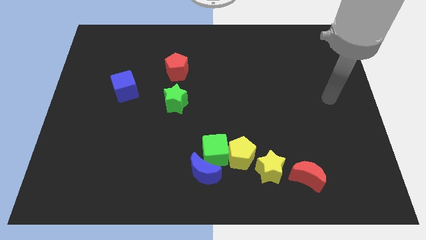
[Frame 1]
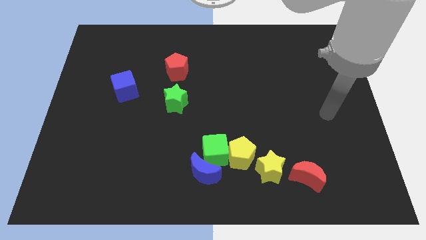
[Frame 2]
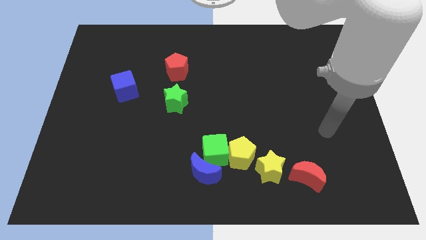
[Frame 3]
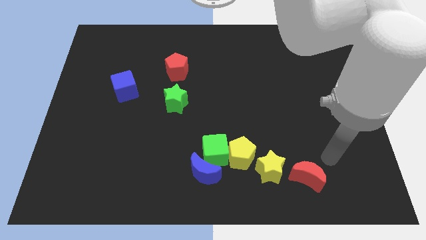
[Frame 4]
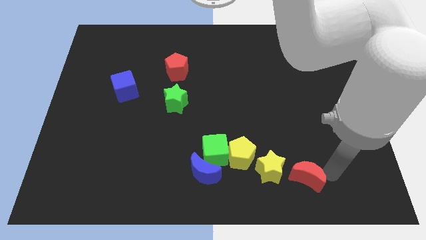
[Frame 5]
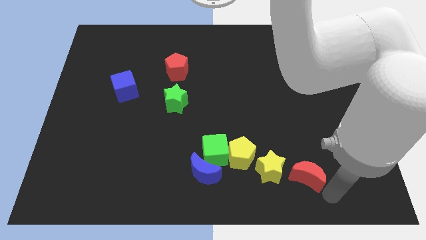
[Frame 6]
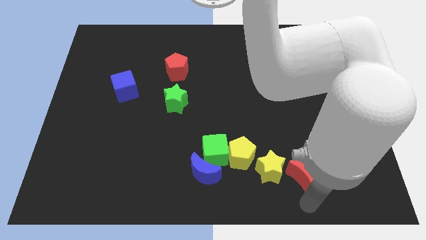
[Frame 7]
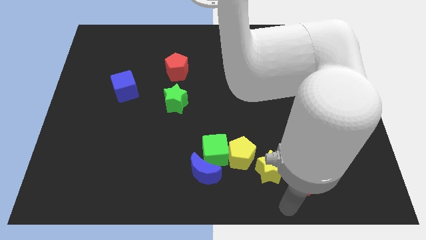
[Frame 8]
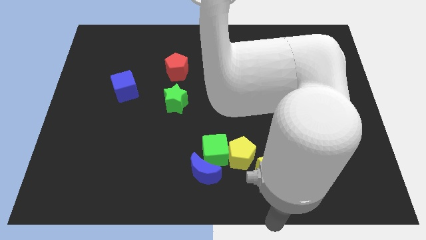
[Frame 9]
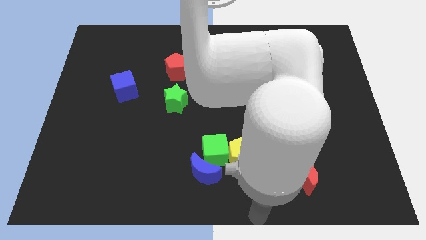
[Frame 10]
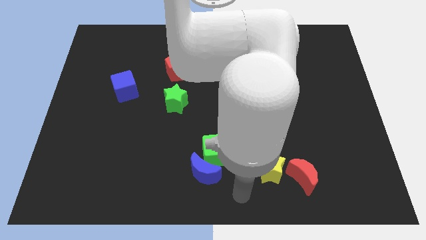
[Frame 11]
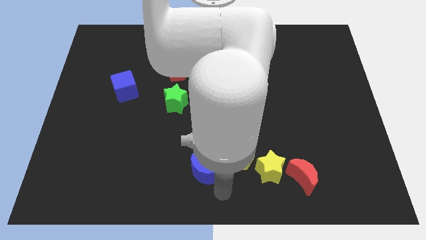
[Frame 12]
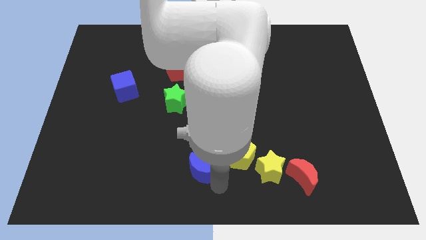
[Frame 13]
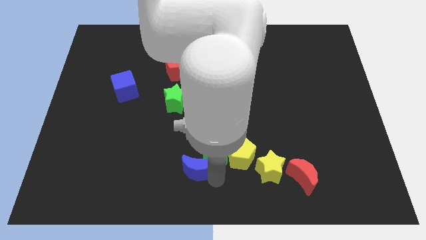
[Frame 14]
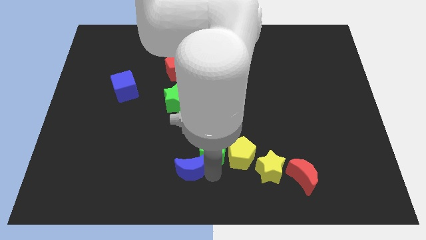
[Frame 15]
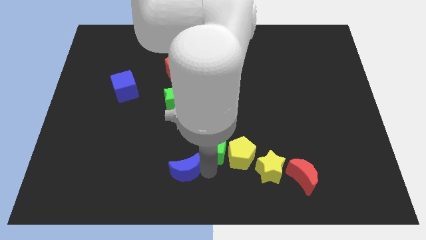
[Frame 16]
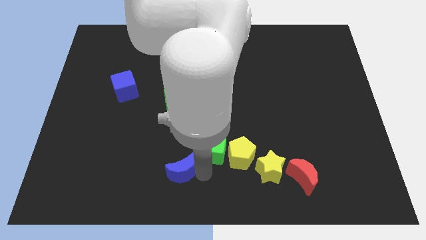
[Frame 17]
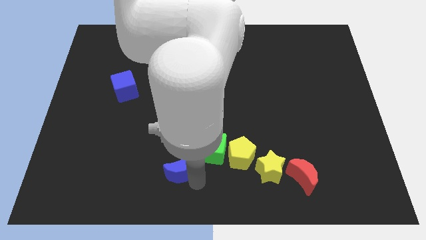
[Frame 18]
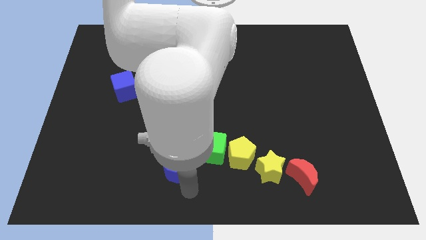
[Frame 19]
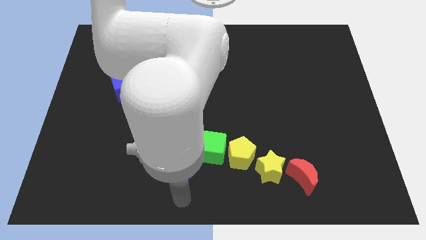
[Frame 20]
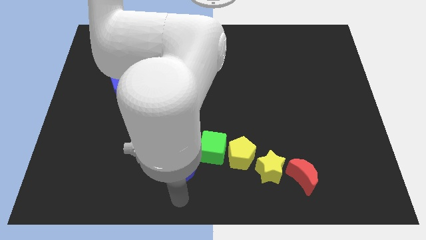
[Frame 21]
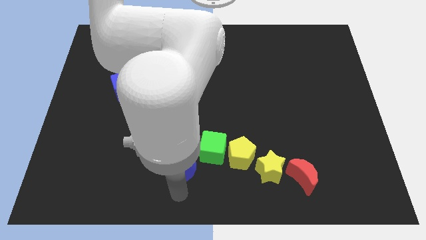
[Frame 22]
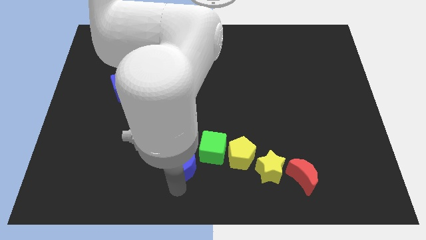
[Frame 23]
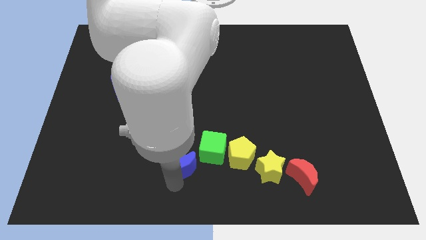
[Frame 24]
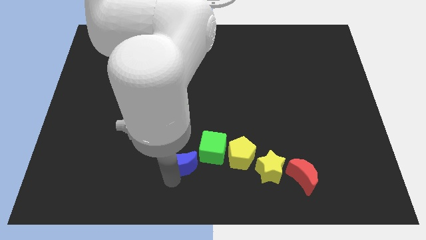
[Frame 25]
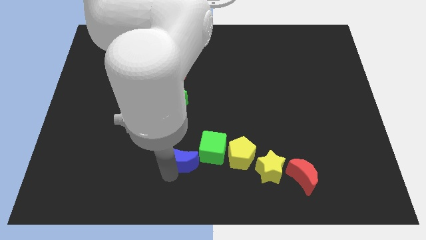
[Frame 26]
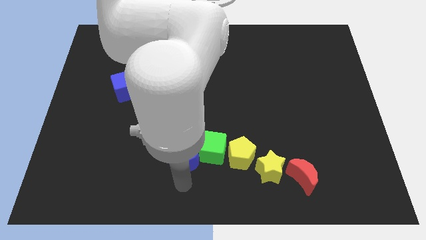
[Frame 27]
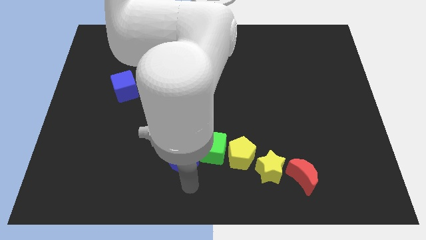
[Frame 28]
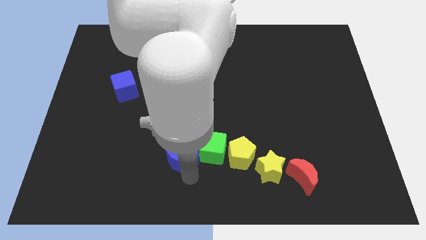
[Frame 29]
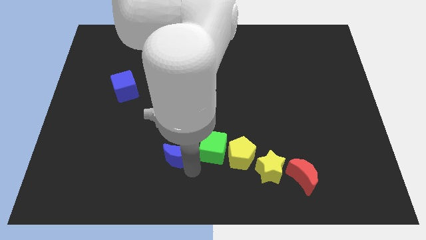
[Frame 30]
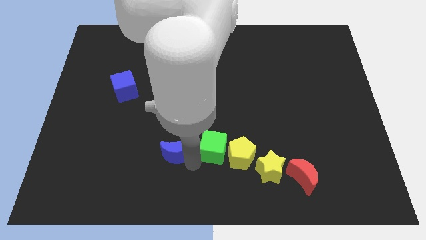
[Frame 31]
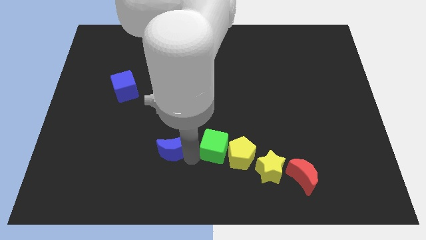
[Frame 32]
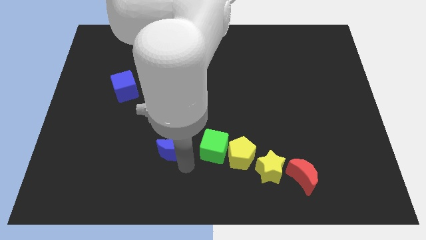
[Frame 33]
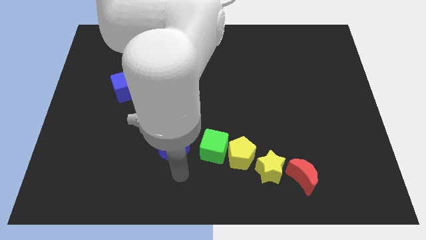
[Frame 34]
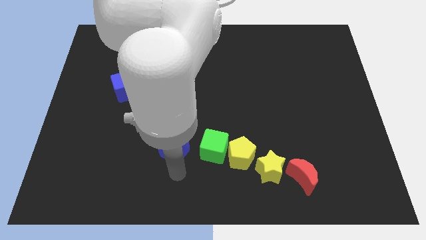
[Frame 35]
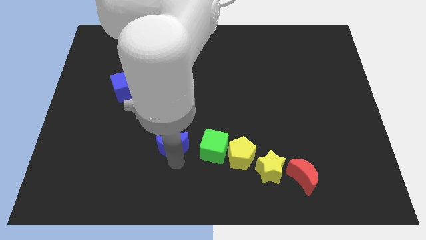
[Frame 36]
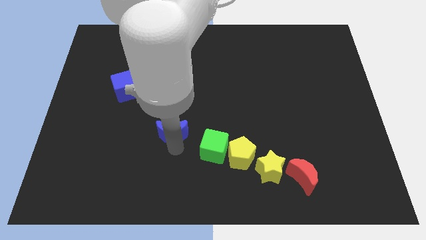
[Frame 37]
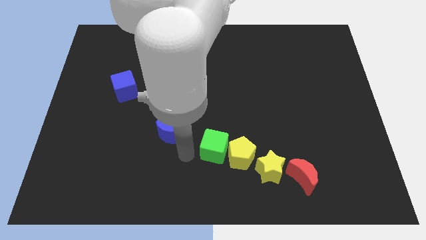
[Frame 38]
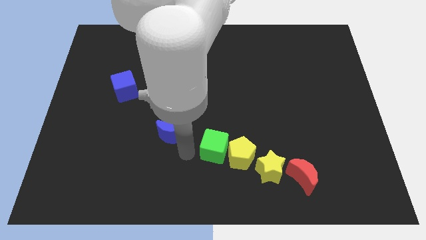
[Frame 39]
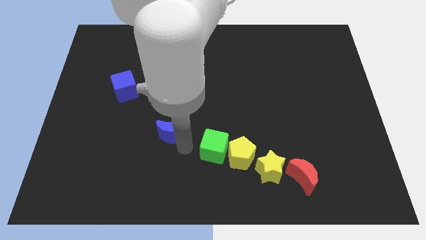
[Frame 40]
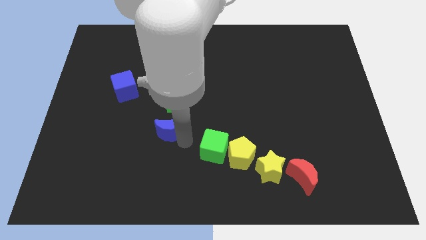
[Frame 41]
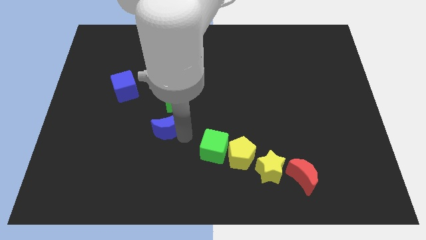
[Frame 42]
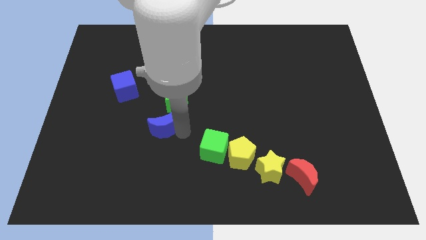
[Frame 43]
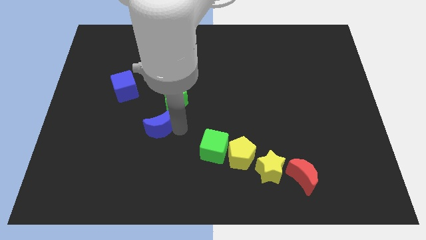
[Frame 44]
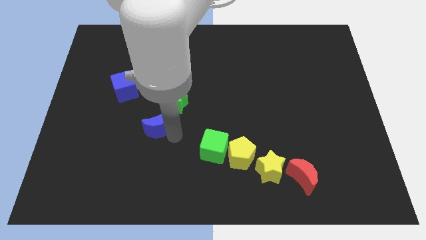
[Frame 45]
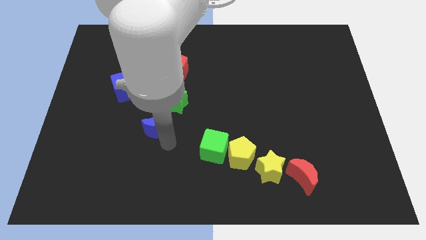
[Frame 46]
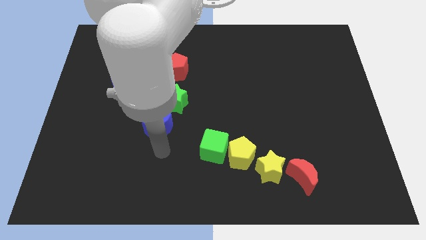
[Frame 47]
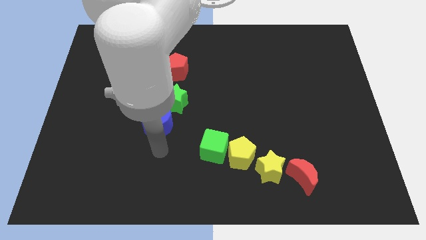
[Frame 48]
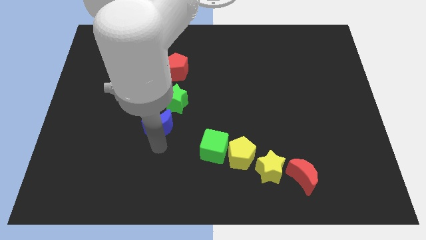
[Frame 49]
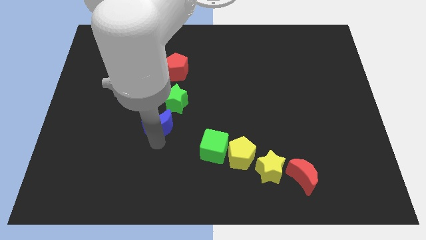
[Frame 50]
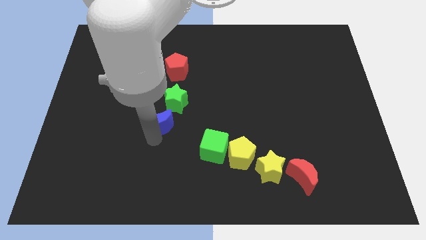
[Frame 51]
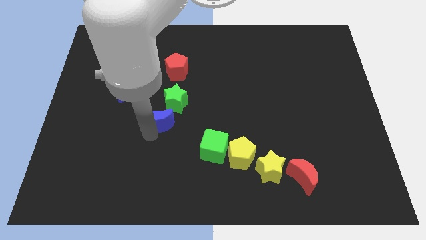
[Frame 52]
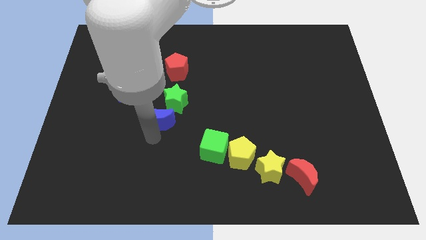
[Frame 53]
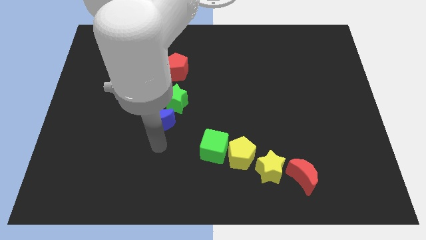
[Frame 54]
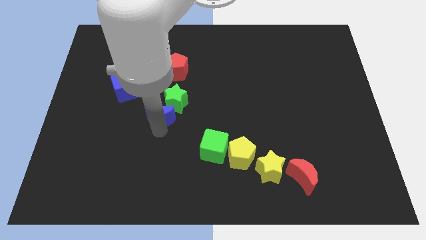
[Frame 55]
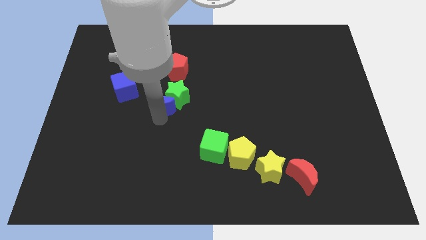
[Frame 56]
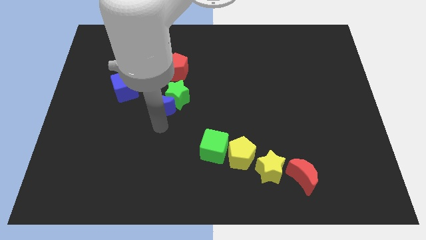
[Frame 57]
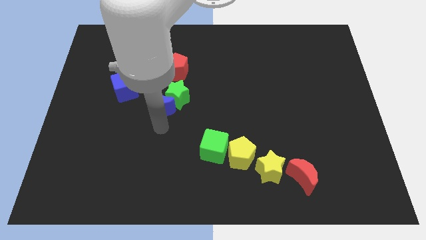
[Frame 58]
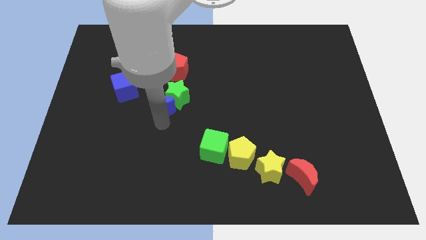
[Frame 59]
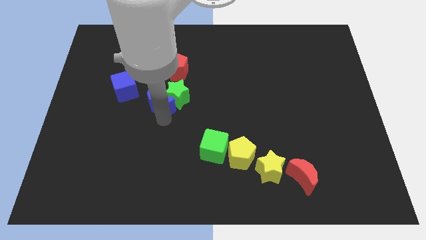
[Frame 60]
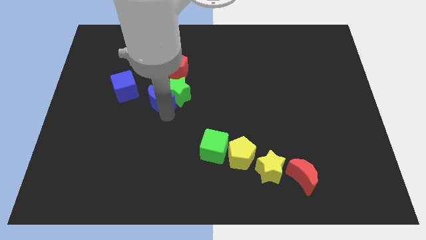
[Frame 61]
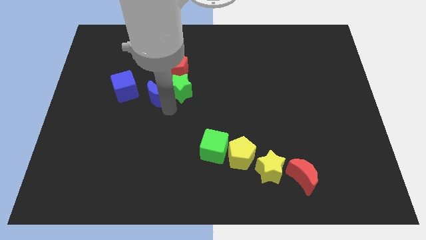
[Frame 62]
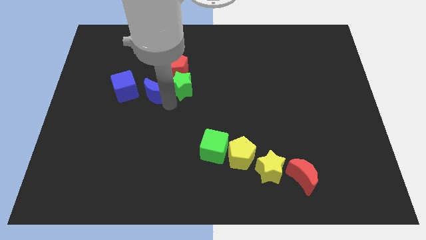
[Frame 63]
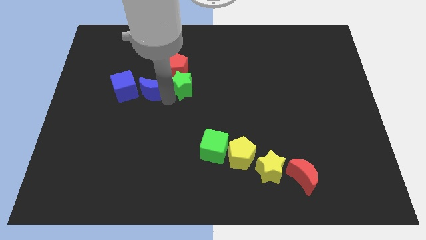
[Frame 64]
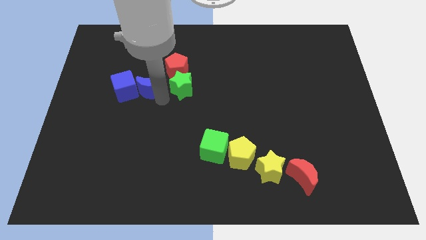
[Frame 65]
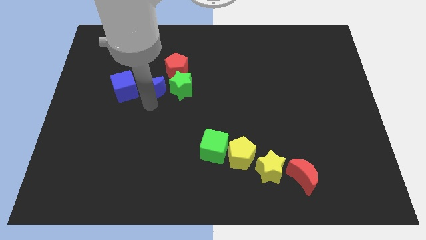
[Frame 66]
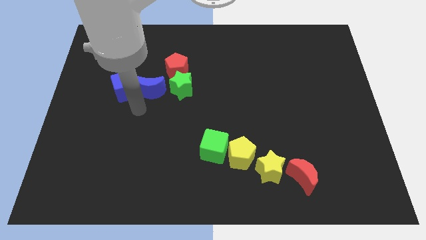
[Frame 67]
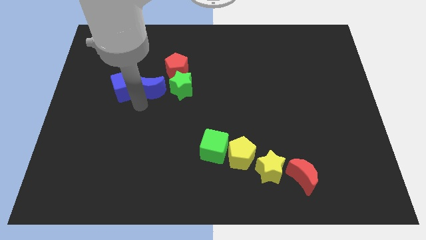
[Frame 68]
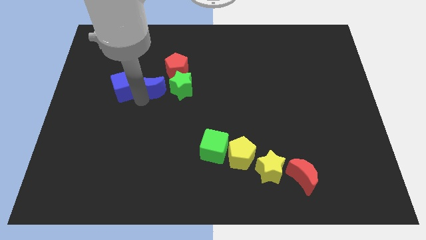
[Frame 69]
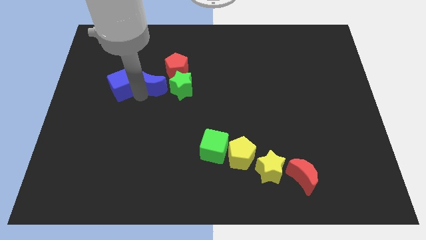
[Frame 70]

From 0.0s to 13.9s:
put the blue moon to the top left of the green star
